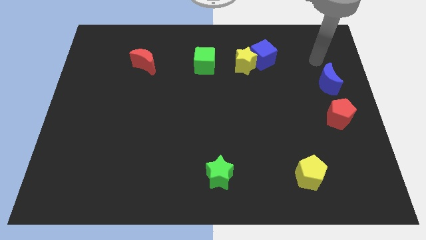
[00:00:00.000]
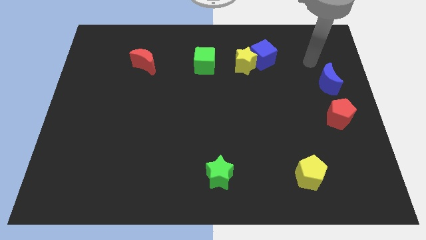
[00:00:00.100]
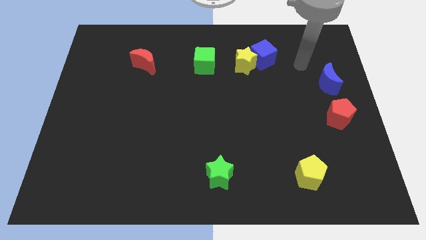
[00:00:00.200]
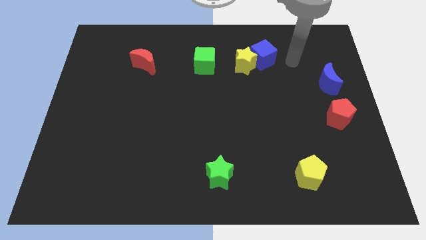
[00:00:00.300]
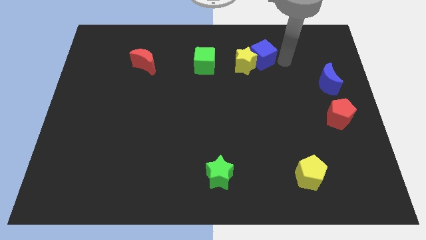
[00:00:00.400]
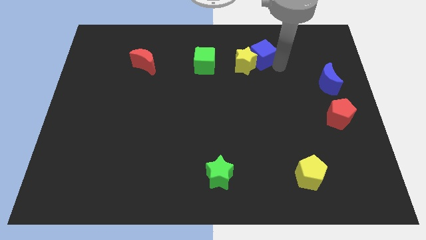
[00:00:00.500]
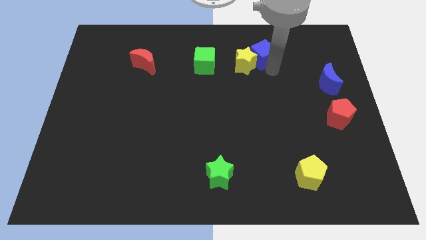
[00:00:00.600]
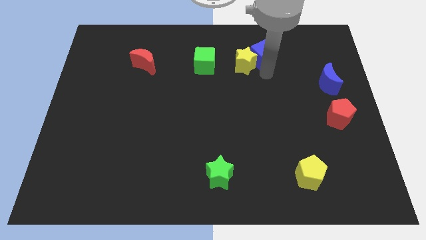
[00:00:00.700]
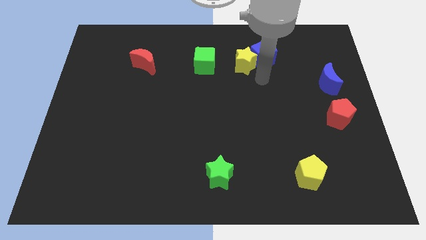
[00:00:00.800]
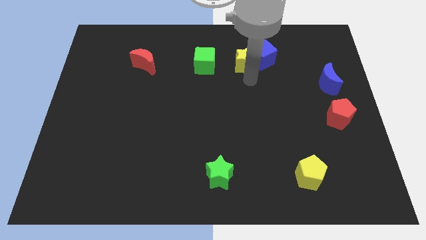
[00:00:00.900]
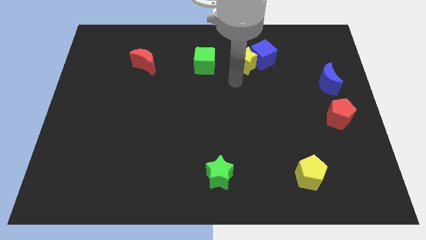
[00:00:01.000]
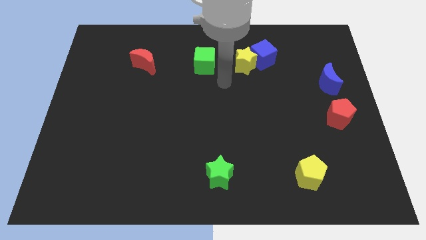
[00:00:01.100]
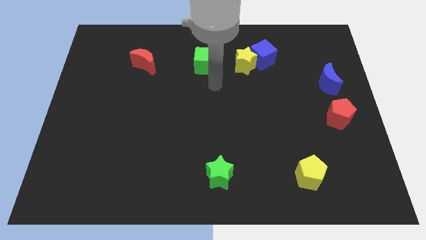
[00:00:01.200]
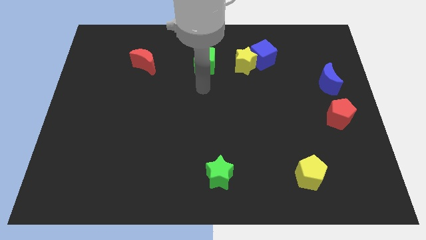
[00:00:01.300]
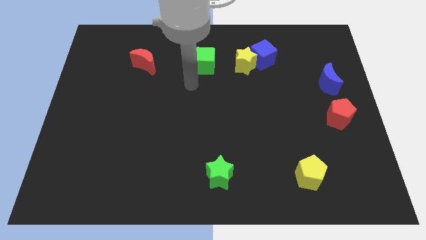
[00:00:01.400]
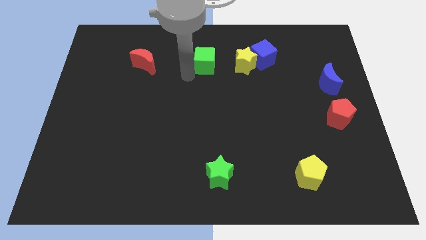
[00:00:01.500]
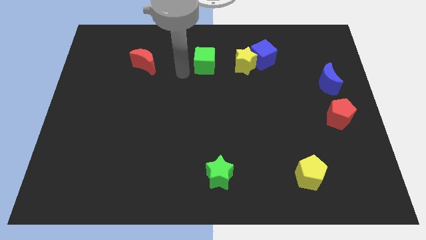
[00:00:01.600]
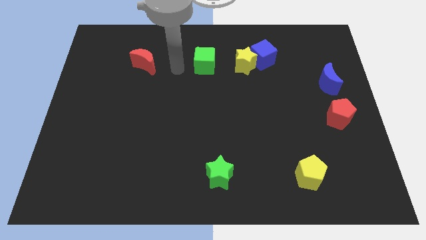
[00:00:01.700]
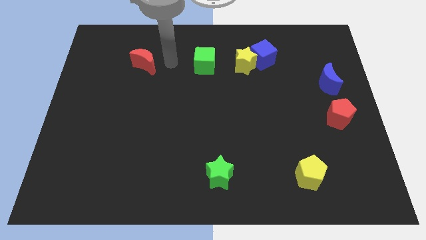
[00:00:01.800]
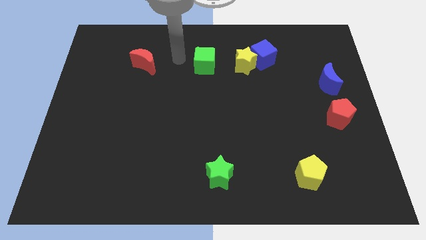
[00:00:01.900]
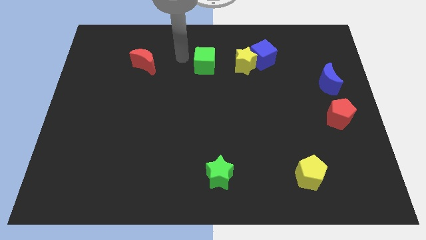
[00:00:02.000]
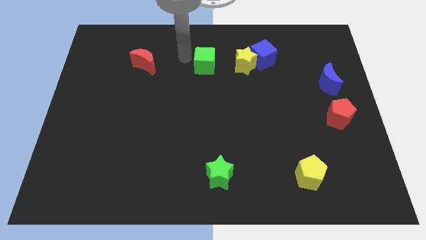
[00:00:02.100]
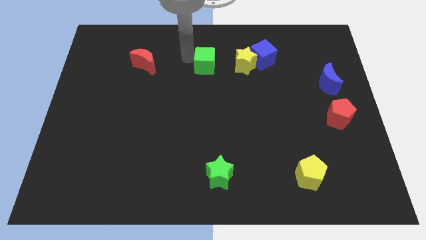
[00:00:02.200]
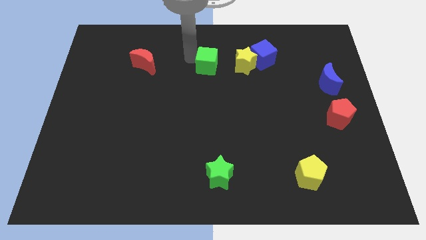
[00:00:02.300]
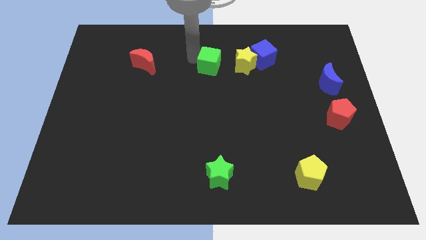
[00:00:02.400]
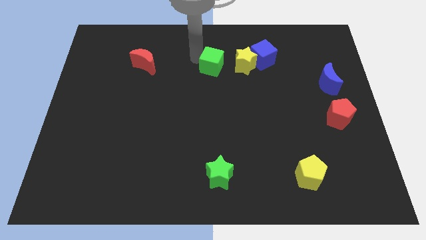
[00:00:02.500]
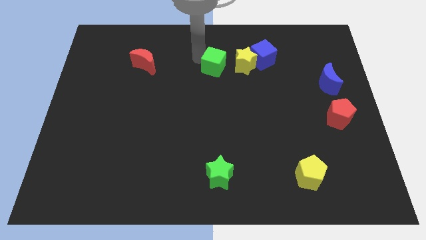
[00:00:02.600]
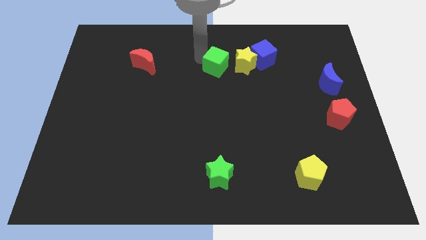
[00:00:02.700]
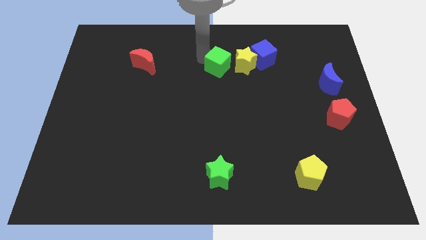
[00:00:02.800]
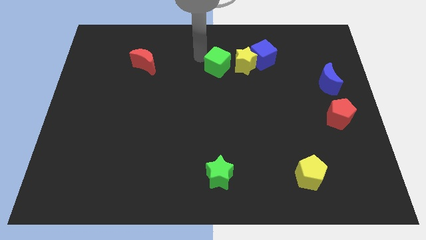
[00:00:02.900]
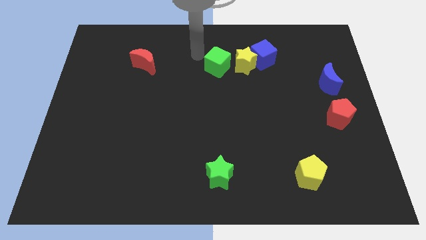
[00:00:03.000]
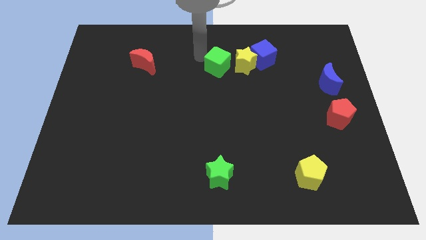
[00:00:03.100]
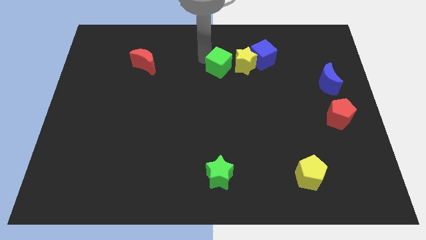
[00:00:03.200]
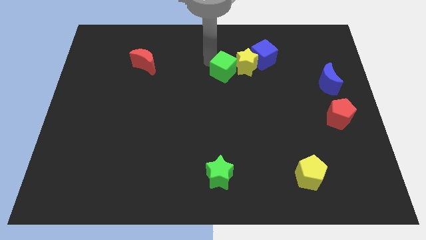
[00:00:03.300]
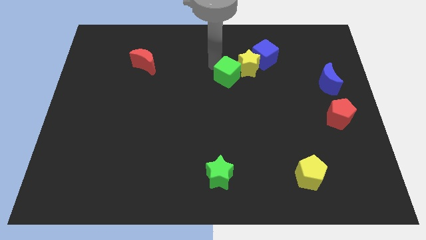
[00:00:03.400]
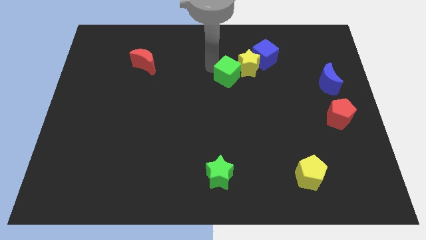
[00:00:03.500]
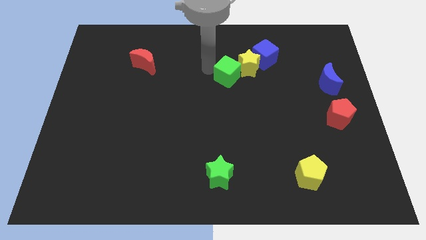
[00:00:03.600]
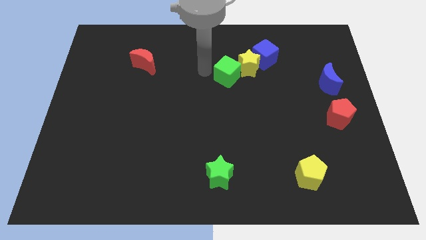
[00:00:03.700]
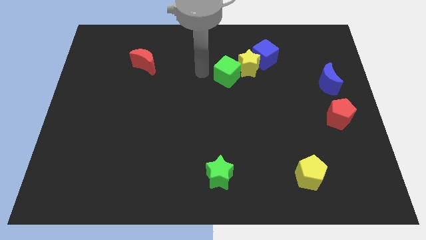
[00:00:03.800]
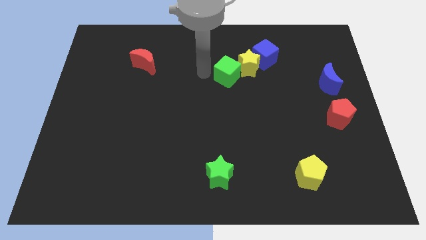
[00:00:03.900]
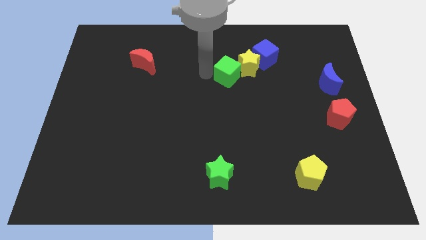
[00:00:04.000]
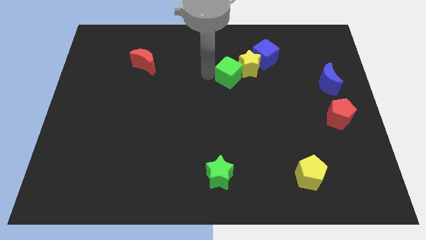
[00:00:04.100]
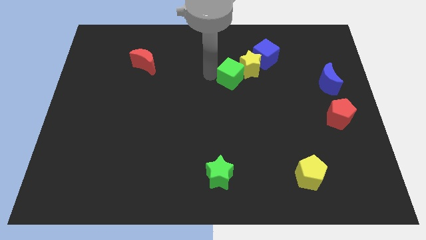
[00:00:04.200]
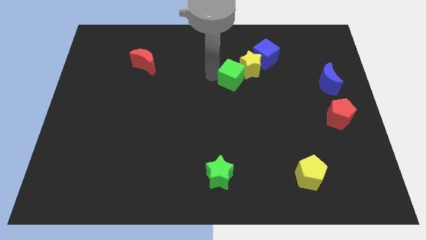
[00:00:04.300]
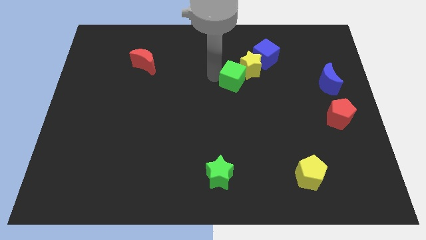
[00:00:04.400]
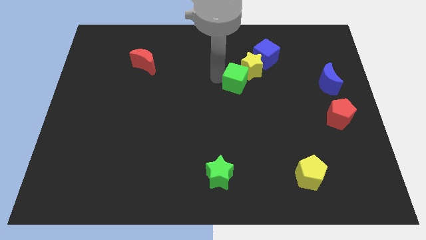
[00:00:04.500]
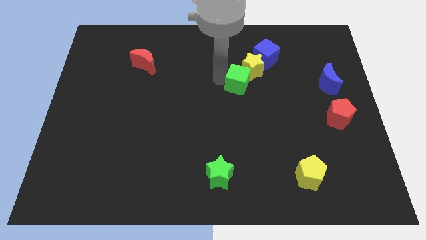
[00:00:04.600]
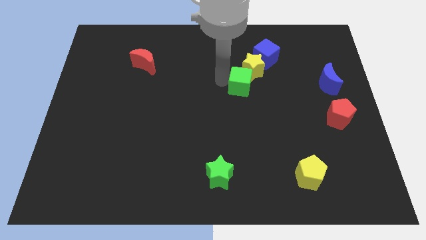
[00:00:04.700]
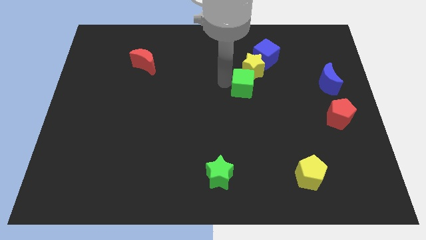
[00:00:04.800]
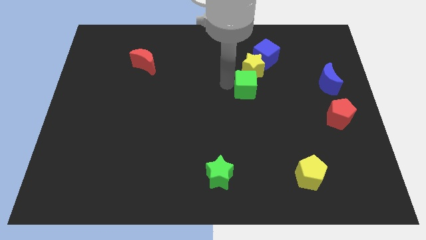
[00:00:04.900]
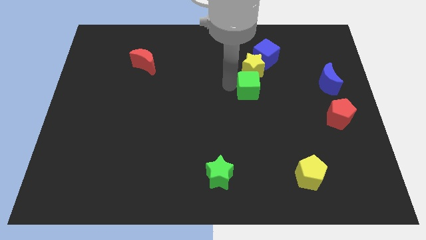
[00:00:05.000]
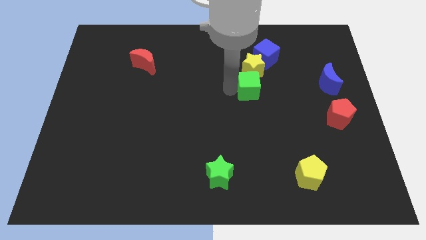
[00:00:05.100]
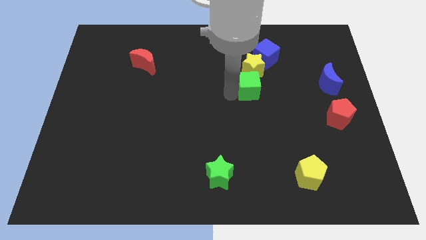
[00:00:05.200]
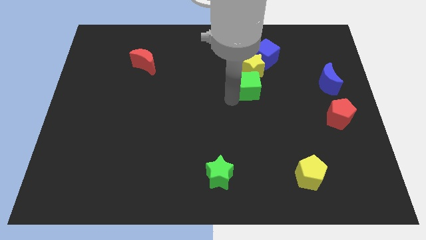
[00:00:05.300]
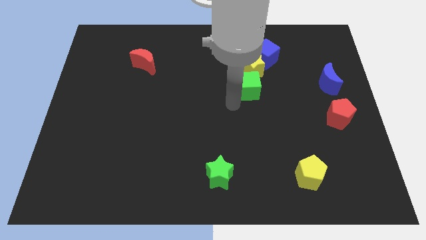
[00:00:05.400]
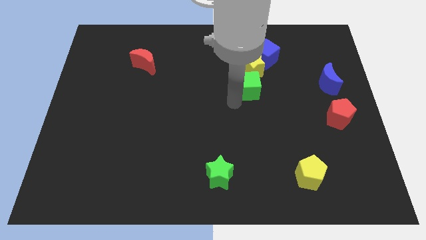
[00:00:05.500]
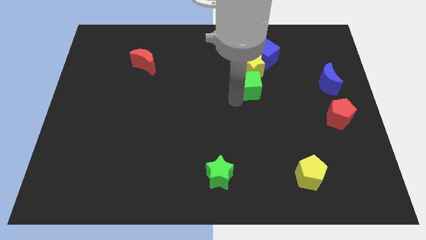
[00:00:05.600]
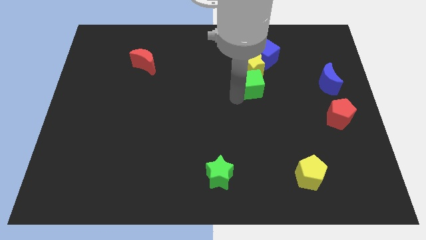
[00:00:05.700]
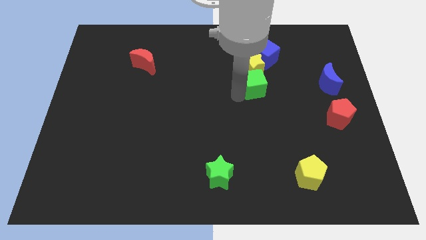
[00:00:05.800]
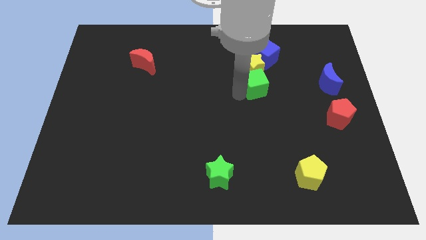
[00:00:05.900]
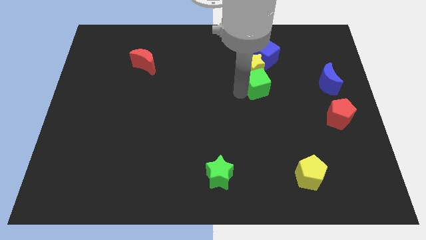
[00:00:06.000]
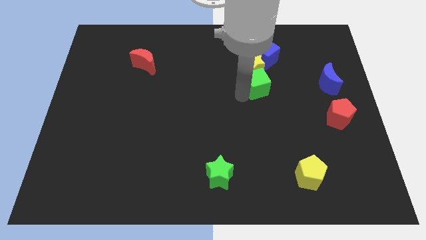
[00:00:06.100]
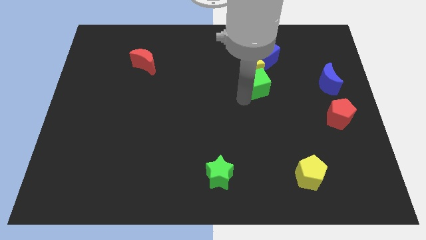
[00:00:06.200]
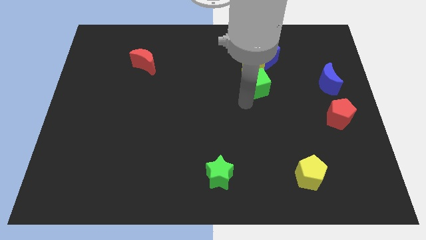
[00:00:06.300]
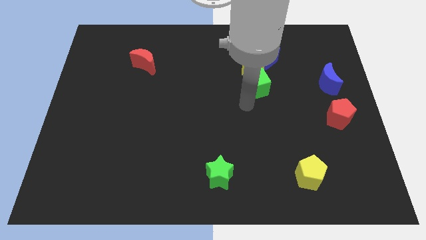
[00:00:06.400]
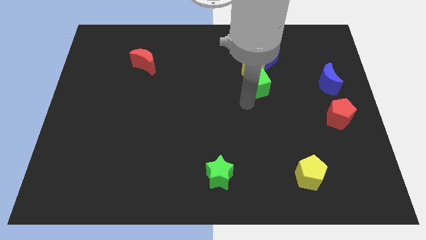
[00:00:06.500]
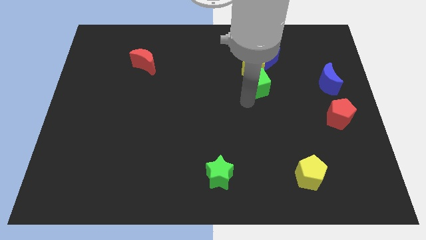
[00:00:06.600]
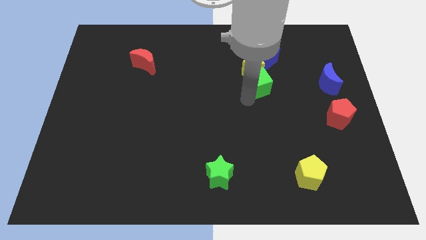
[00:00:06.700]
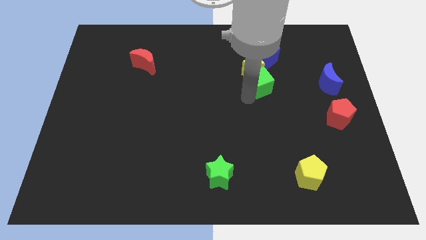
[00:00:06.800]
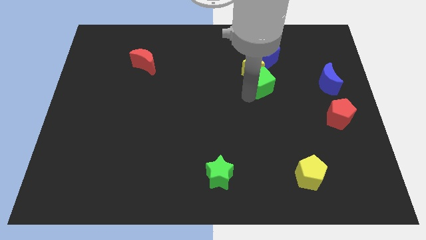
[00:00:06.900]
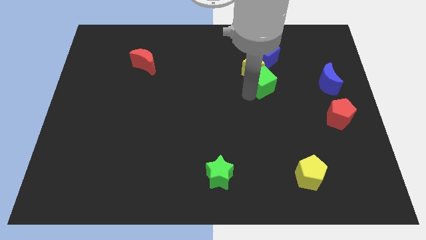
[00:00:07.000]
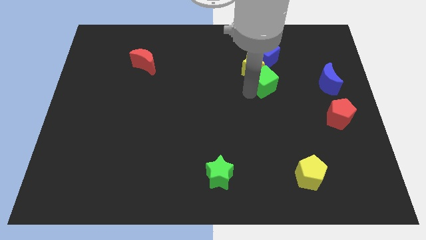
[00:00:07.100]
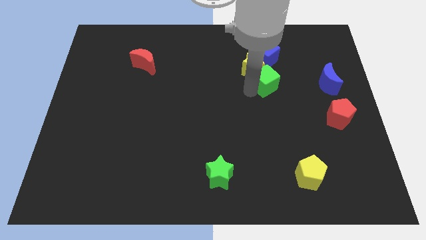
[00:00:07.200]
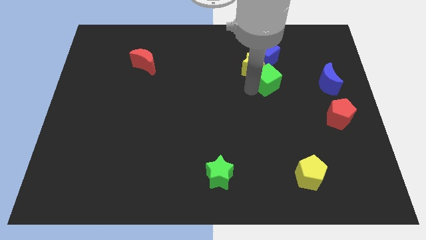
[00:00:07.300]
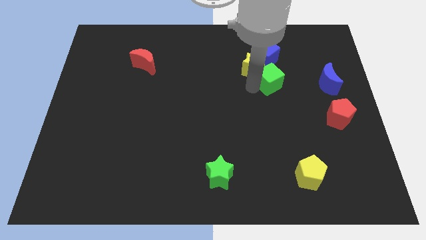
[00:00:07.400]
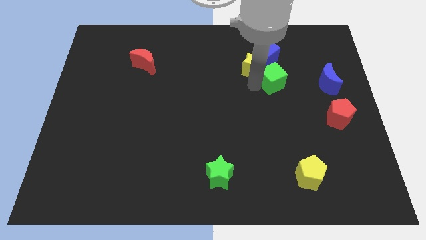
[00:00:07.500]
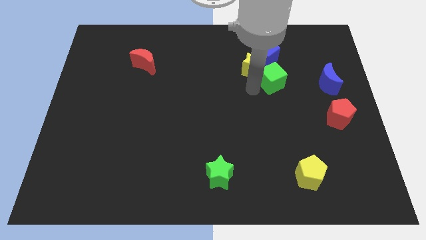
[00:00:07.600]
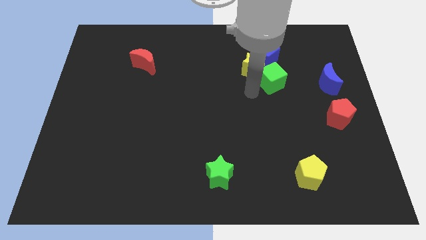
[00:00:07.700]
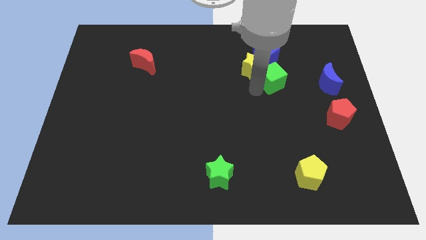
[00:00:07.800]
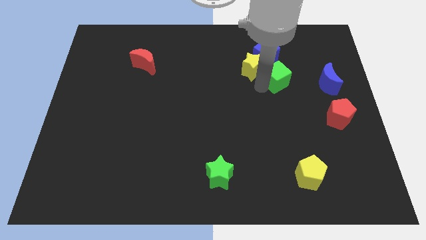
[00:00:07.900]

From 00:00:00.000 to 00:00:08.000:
slide the green cube diagonally down and to the right of the blue cube
